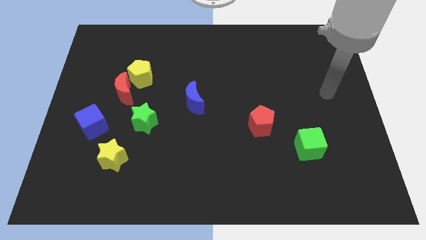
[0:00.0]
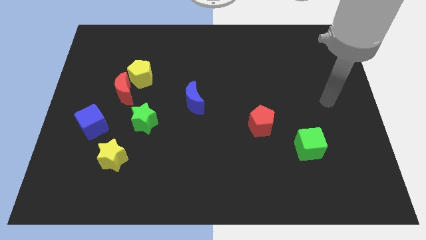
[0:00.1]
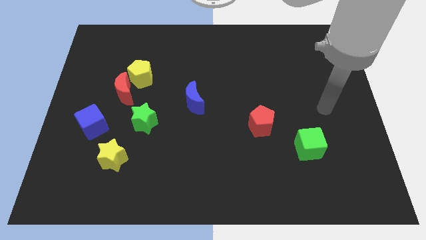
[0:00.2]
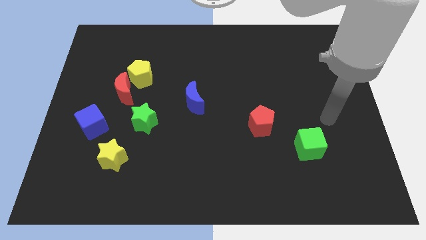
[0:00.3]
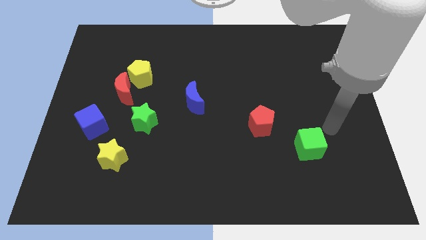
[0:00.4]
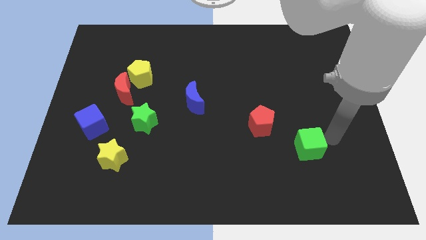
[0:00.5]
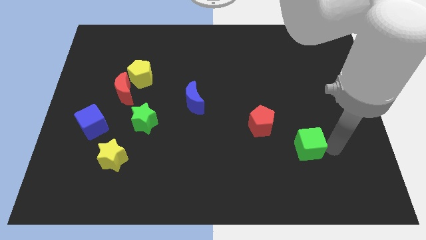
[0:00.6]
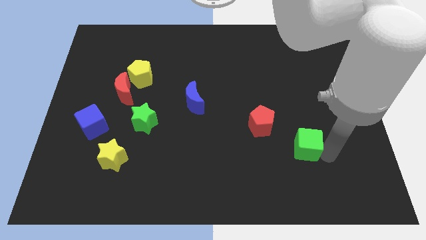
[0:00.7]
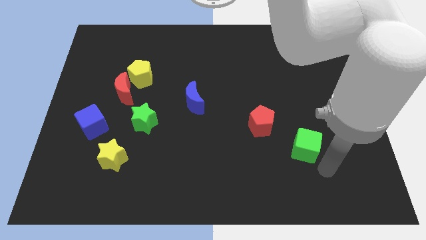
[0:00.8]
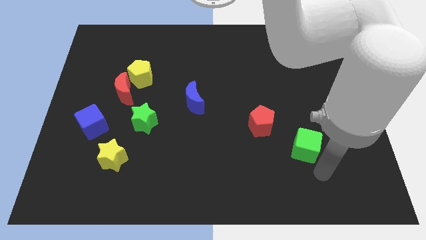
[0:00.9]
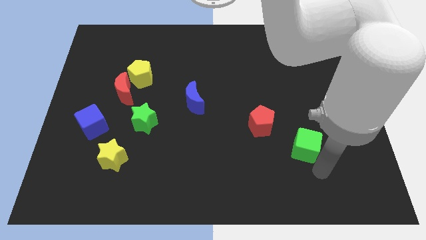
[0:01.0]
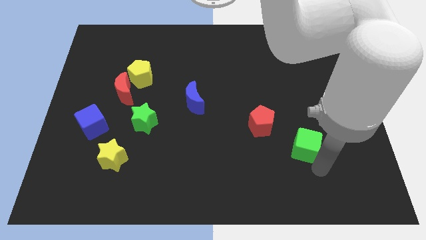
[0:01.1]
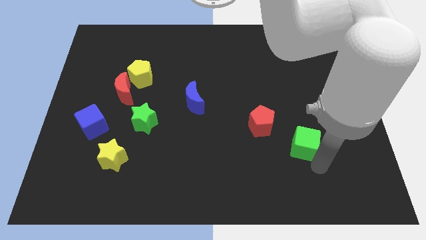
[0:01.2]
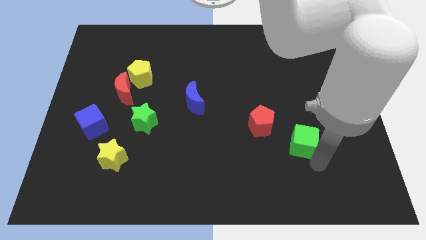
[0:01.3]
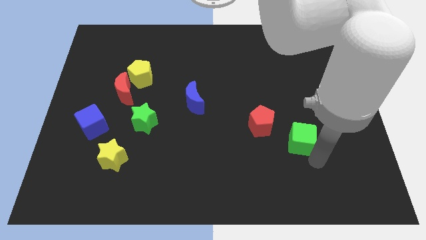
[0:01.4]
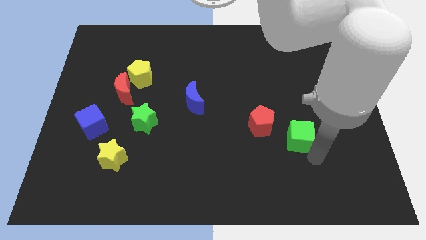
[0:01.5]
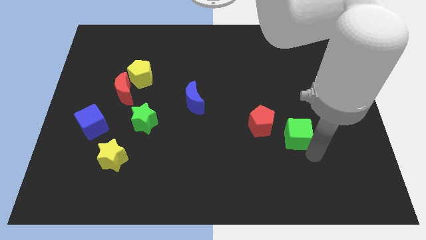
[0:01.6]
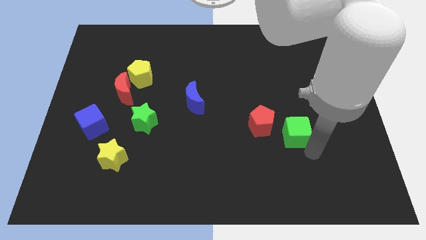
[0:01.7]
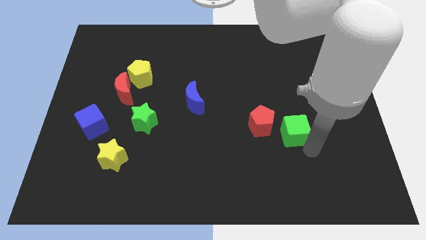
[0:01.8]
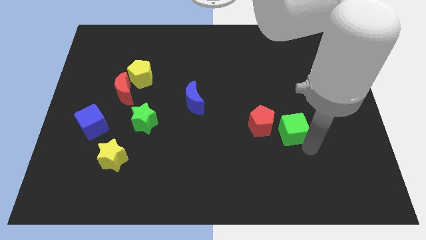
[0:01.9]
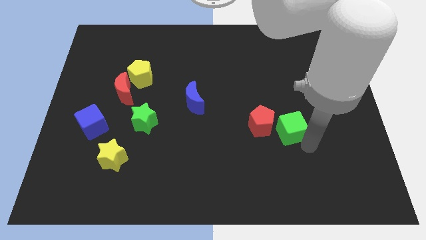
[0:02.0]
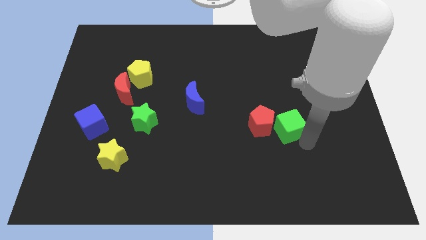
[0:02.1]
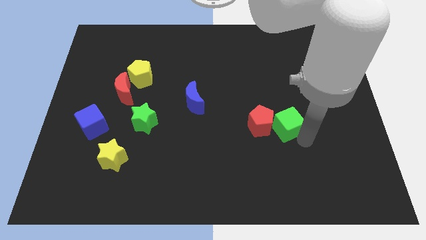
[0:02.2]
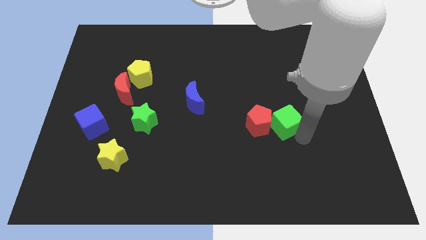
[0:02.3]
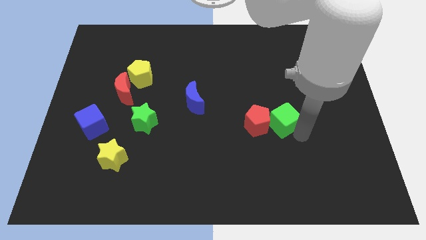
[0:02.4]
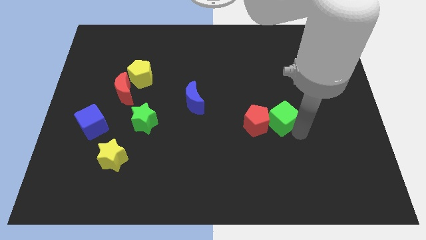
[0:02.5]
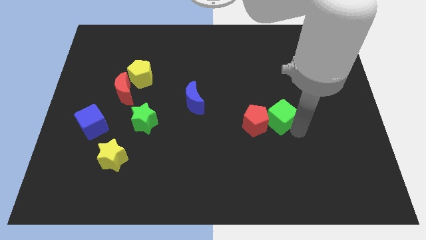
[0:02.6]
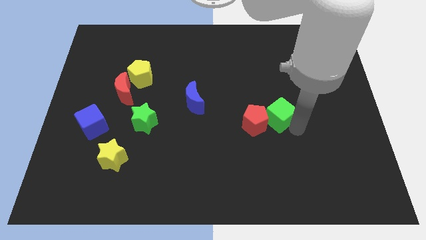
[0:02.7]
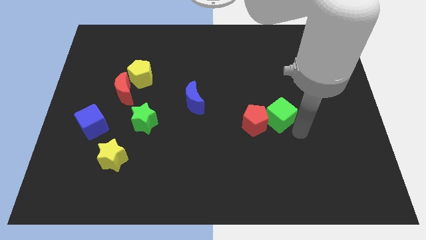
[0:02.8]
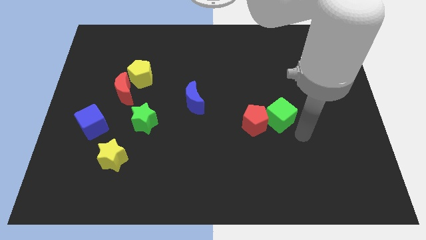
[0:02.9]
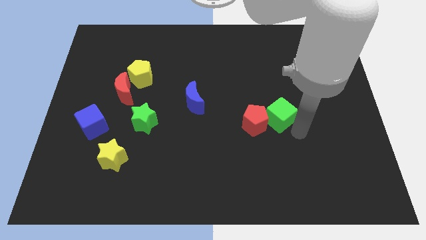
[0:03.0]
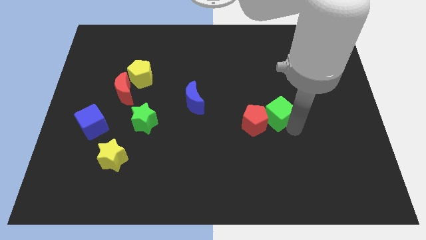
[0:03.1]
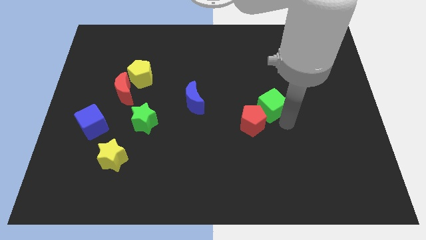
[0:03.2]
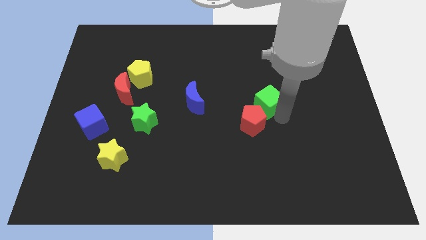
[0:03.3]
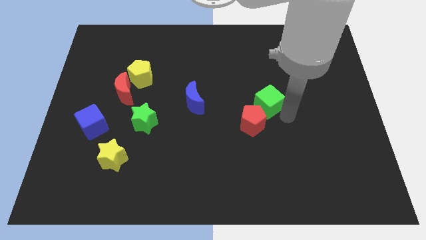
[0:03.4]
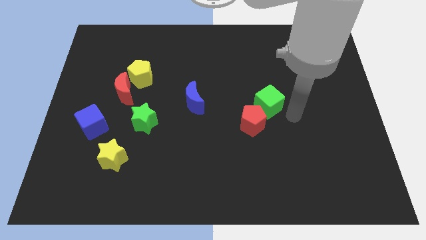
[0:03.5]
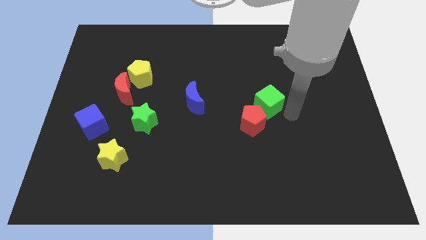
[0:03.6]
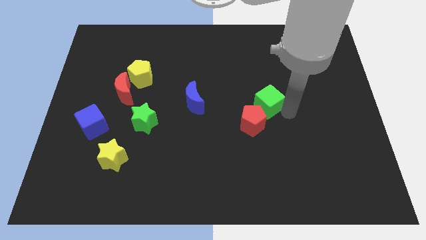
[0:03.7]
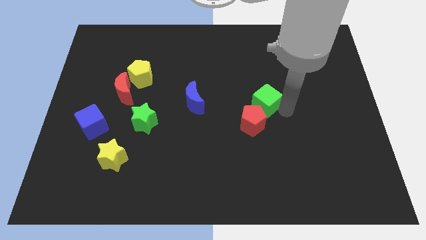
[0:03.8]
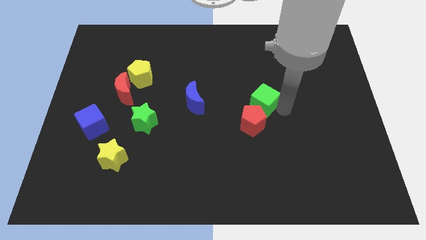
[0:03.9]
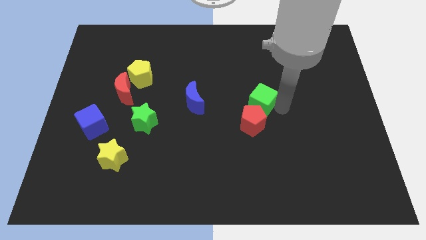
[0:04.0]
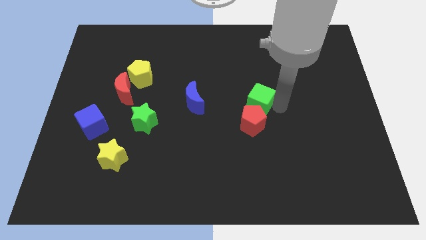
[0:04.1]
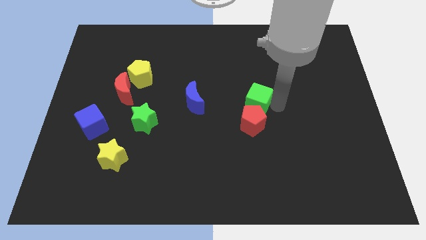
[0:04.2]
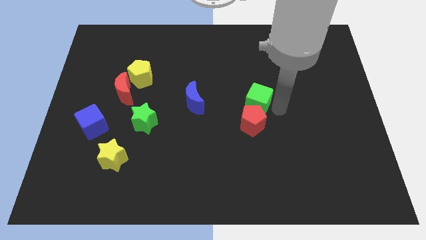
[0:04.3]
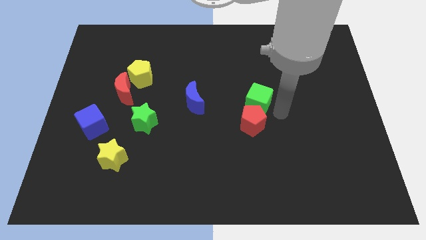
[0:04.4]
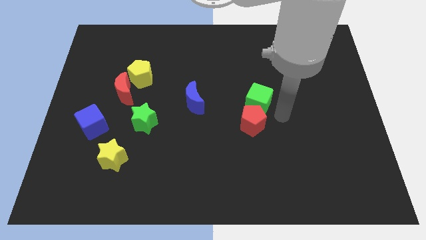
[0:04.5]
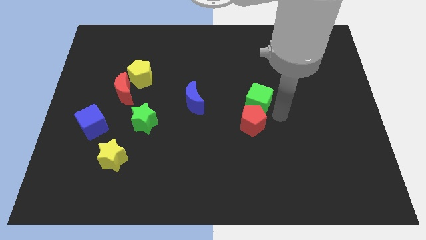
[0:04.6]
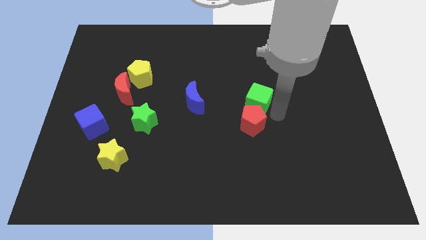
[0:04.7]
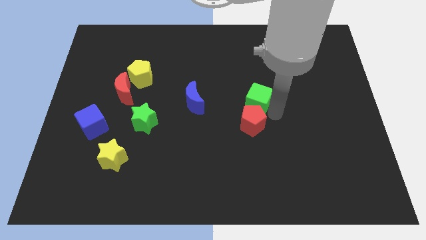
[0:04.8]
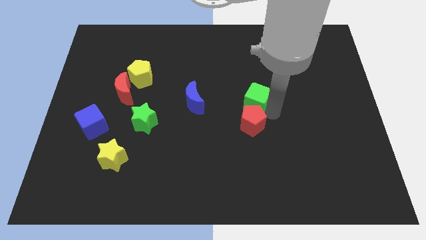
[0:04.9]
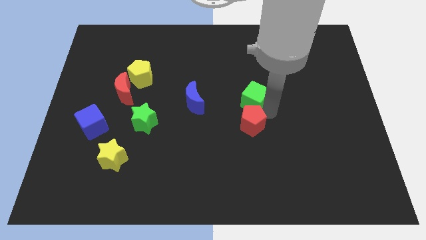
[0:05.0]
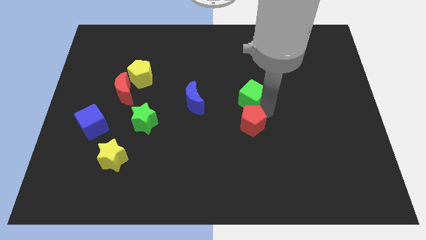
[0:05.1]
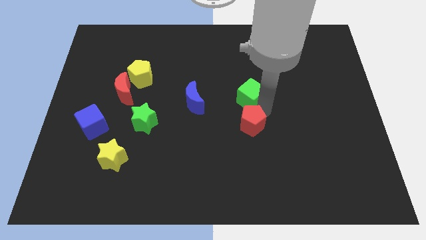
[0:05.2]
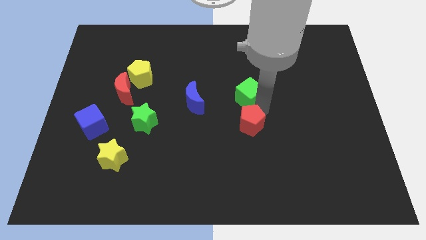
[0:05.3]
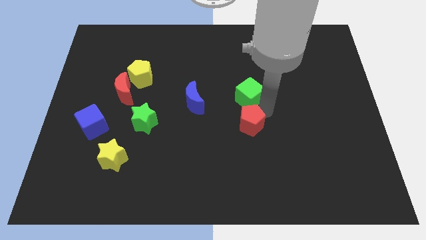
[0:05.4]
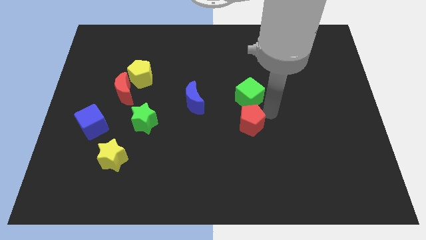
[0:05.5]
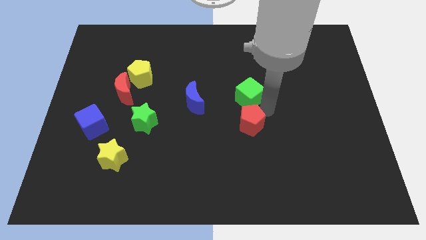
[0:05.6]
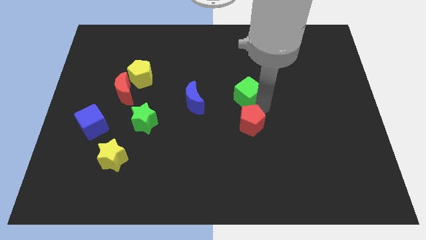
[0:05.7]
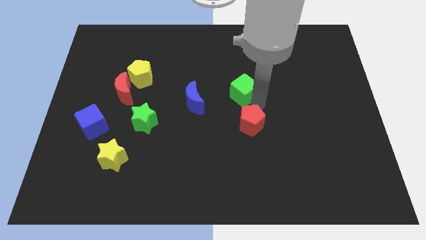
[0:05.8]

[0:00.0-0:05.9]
push the green cube up and to the left diagonally

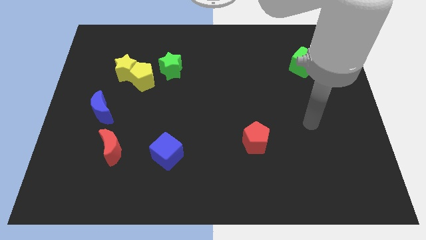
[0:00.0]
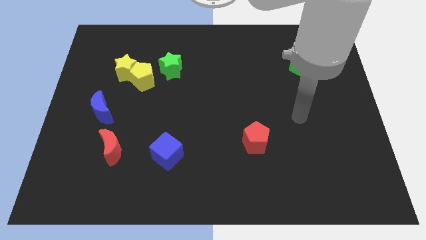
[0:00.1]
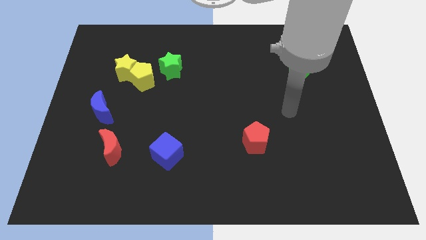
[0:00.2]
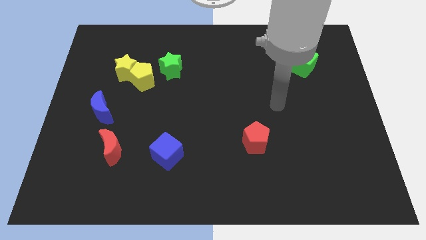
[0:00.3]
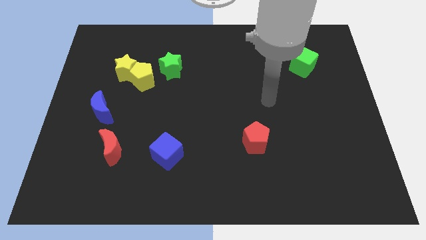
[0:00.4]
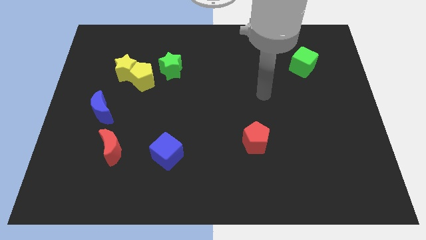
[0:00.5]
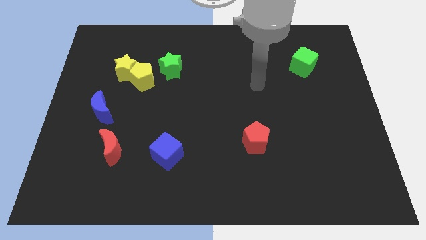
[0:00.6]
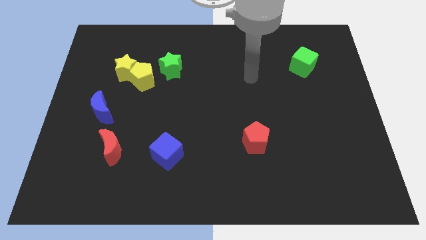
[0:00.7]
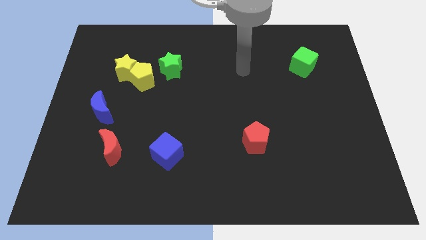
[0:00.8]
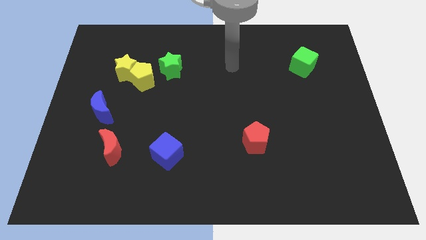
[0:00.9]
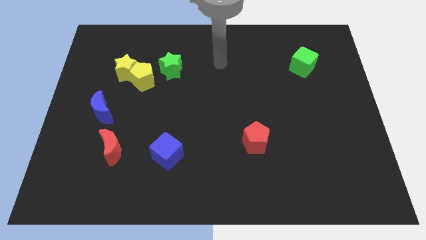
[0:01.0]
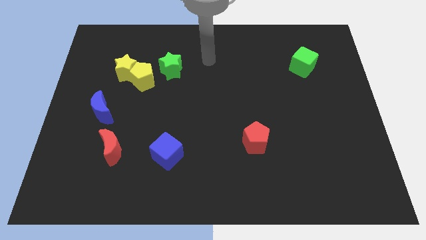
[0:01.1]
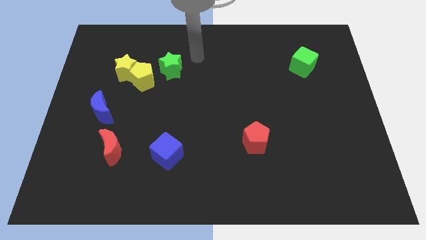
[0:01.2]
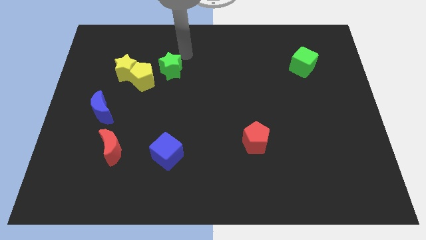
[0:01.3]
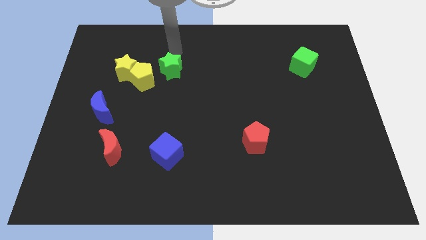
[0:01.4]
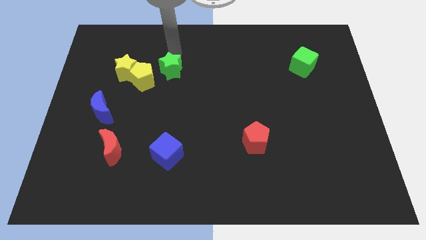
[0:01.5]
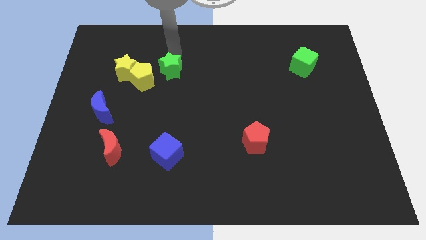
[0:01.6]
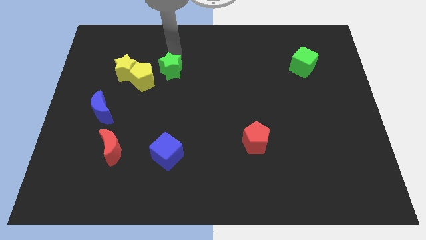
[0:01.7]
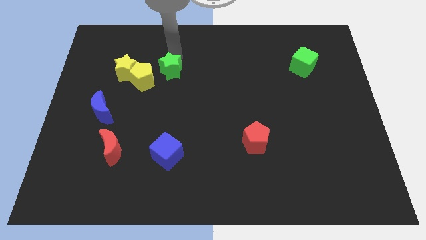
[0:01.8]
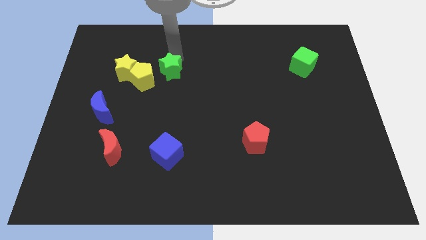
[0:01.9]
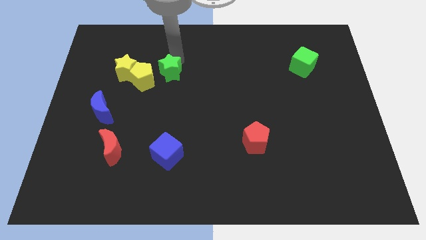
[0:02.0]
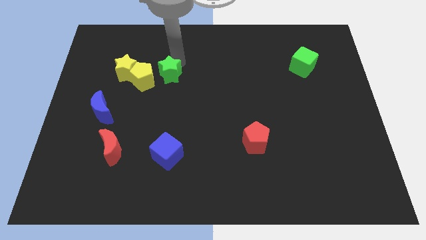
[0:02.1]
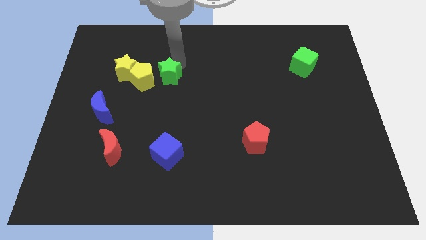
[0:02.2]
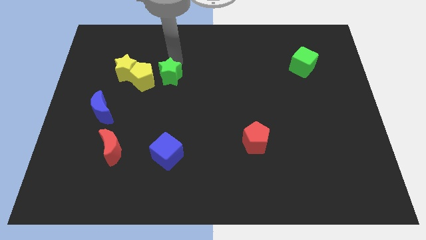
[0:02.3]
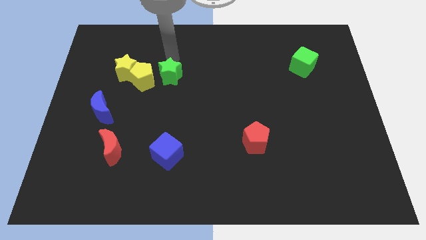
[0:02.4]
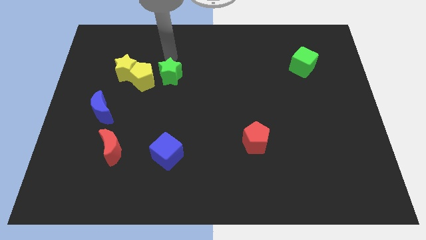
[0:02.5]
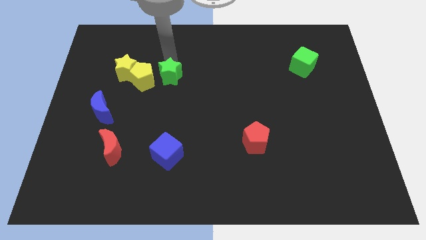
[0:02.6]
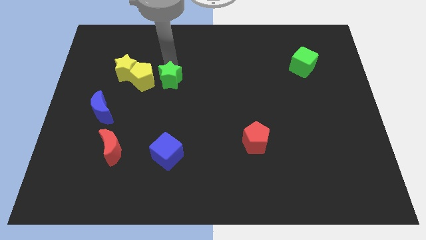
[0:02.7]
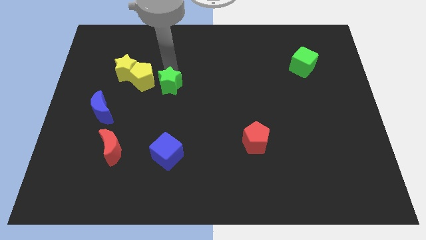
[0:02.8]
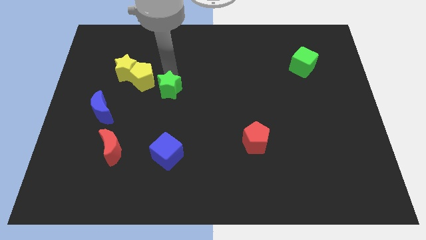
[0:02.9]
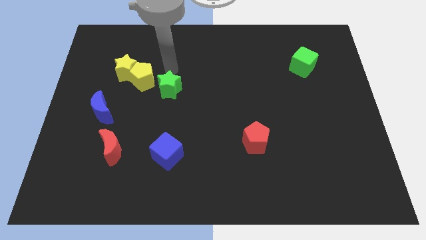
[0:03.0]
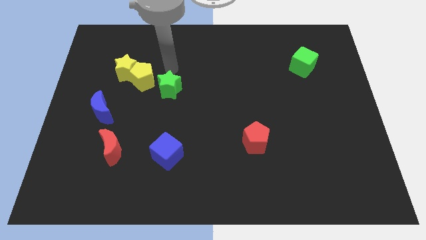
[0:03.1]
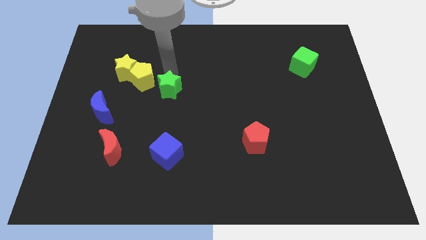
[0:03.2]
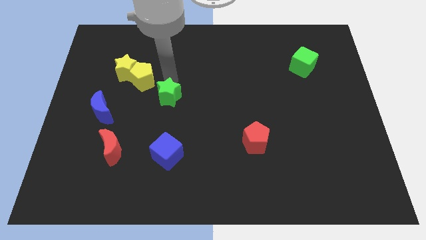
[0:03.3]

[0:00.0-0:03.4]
move the green star somewhat down
